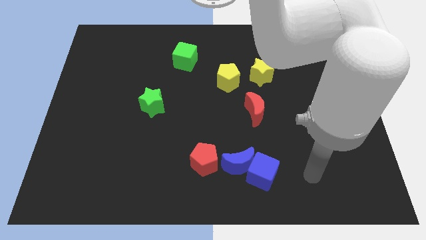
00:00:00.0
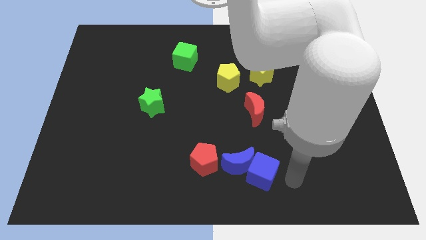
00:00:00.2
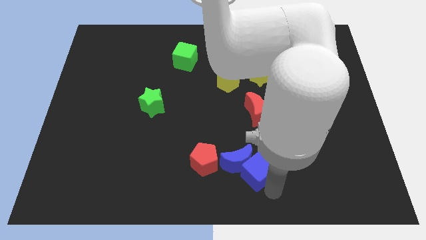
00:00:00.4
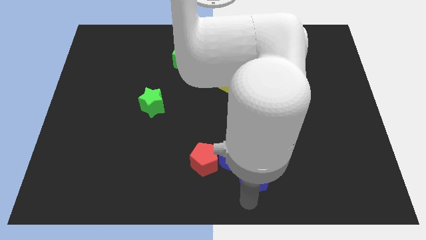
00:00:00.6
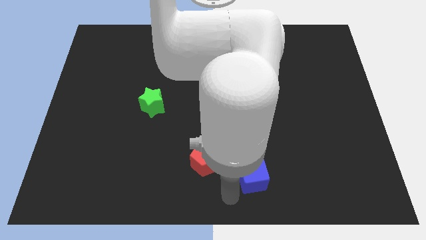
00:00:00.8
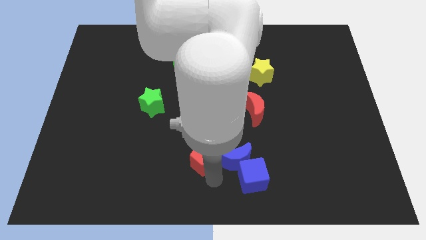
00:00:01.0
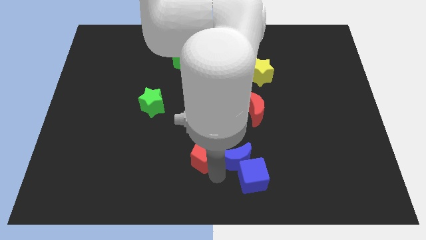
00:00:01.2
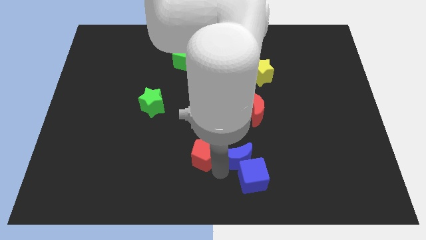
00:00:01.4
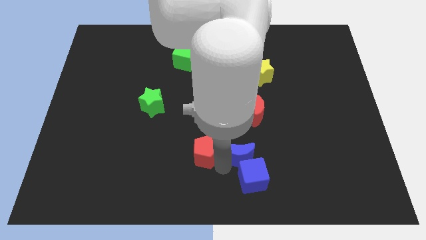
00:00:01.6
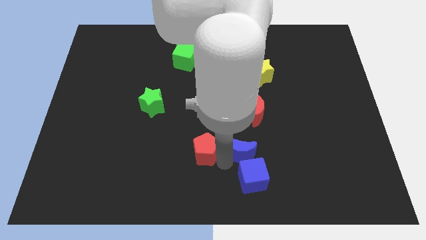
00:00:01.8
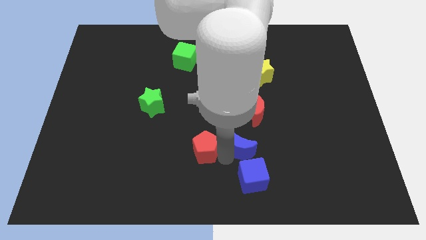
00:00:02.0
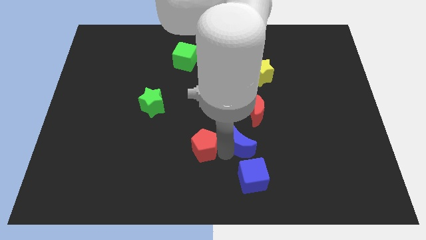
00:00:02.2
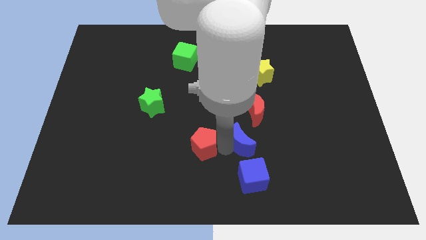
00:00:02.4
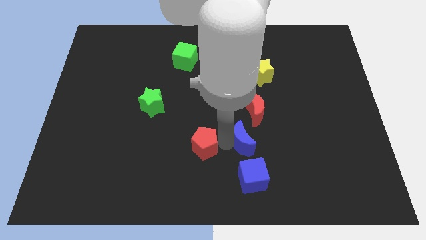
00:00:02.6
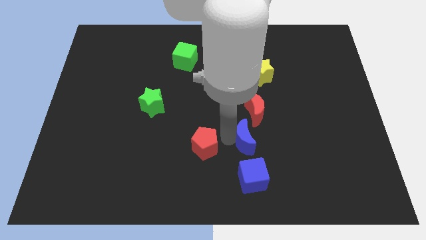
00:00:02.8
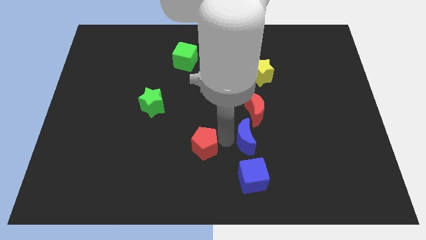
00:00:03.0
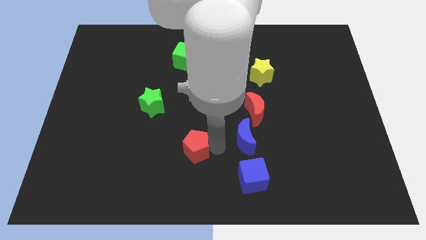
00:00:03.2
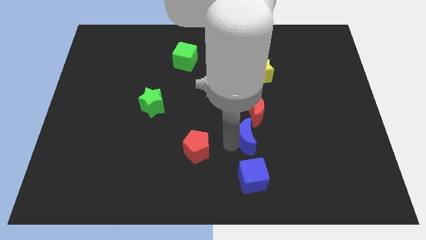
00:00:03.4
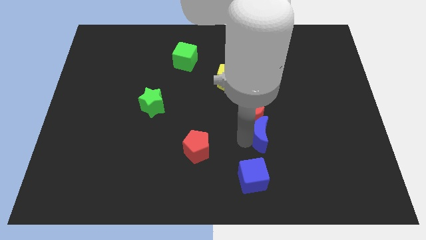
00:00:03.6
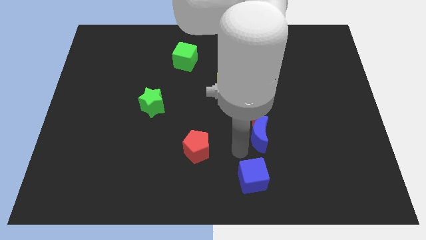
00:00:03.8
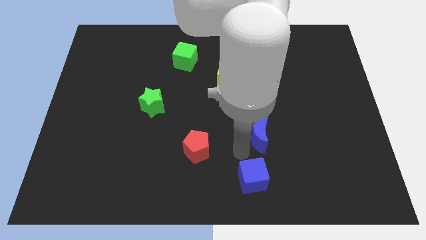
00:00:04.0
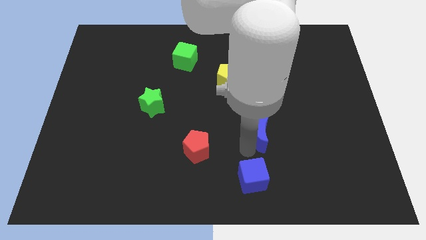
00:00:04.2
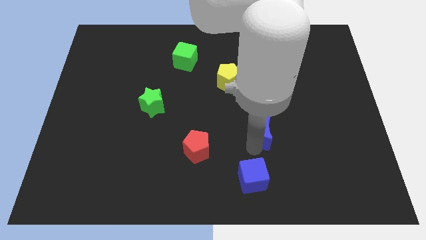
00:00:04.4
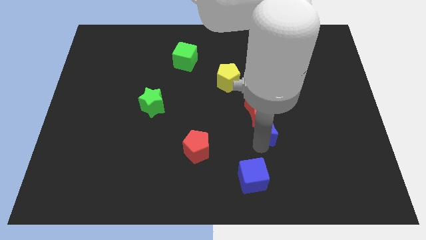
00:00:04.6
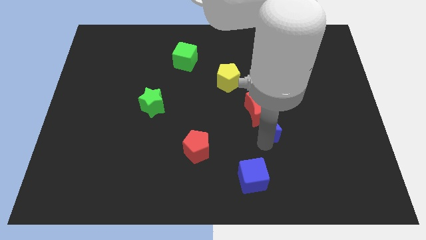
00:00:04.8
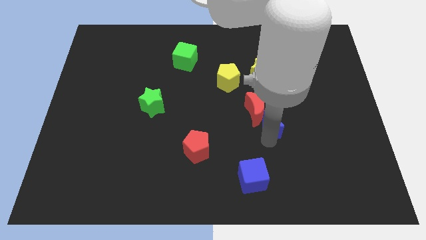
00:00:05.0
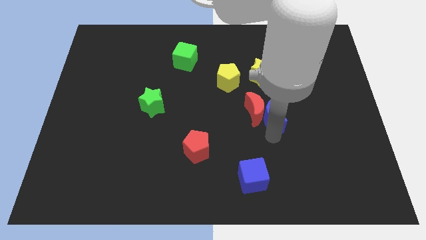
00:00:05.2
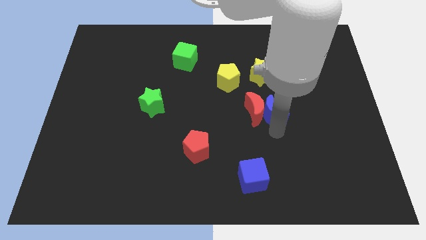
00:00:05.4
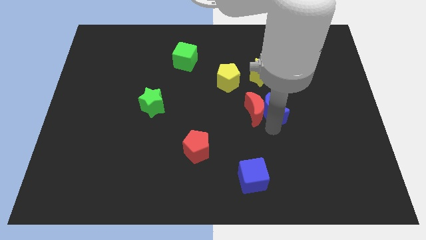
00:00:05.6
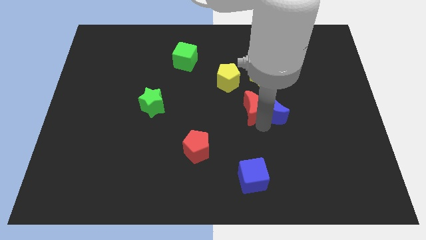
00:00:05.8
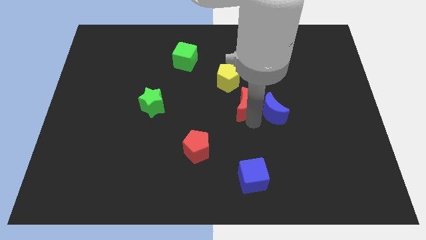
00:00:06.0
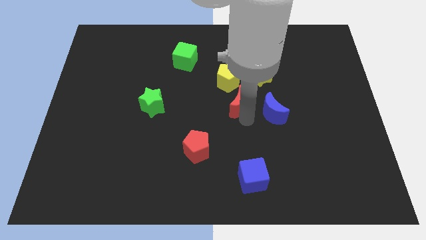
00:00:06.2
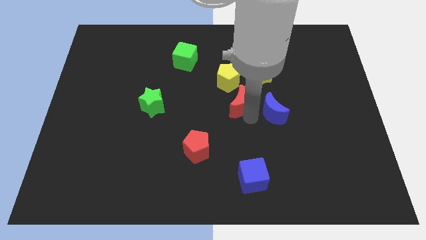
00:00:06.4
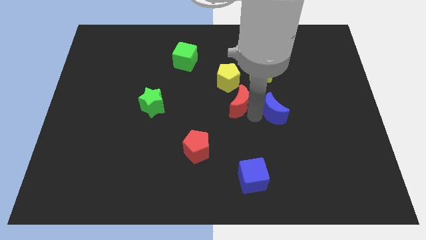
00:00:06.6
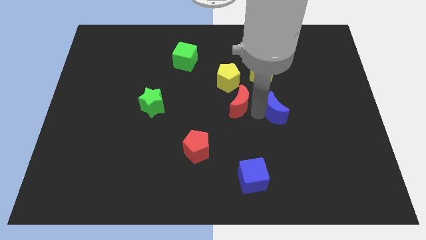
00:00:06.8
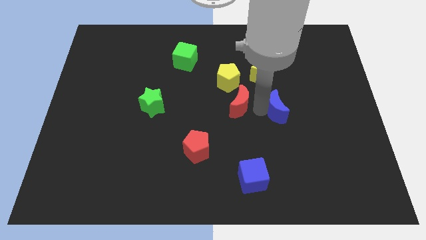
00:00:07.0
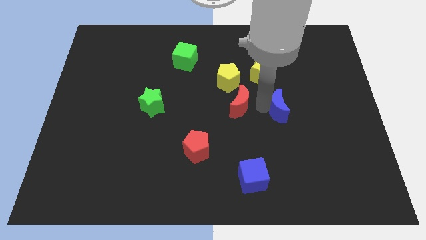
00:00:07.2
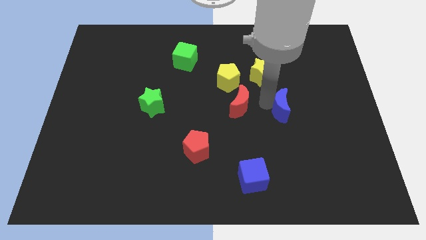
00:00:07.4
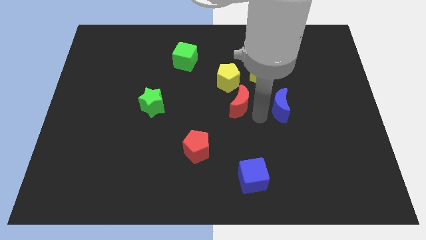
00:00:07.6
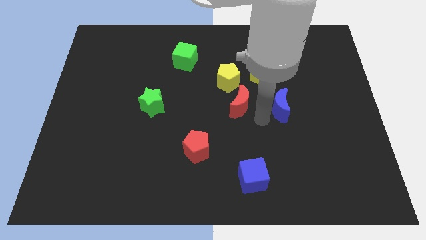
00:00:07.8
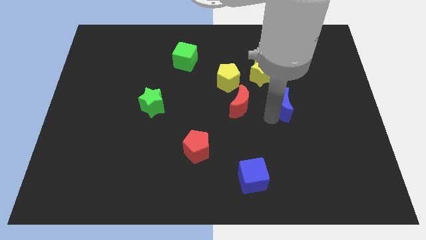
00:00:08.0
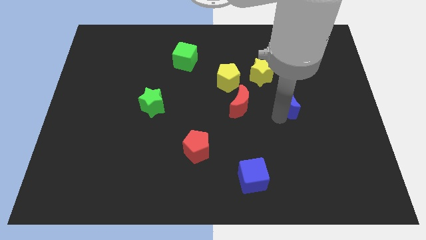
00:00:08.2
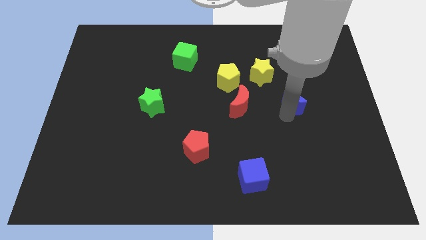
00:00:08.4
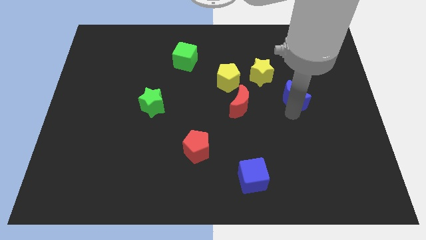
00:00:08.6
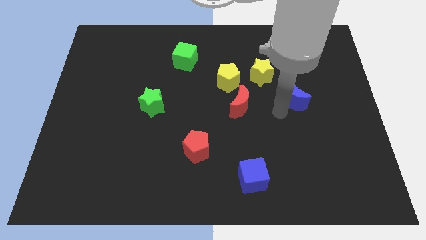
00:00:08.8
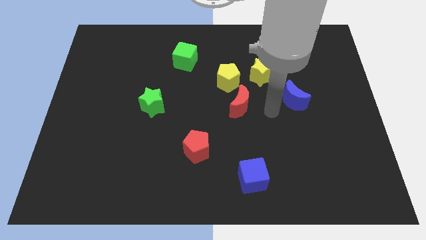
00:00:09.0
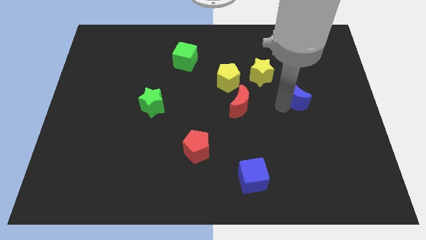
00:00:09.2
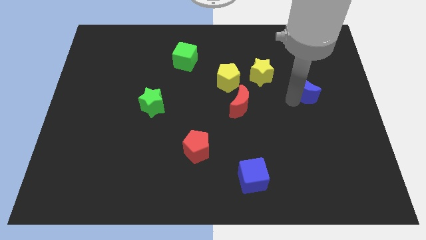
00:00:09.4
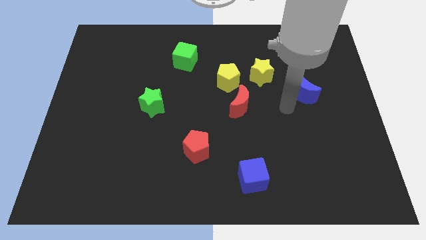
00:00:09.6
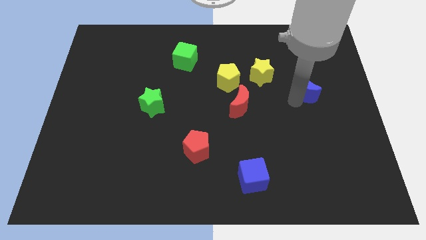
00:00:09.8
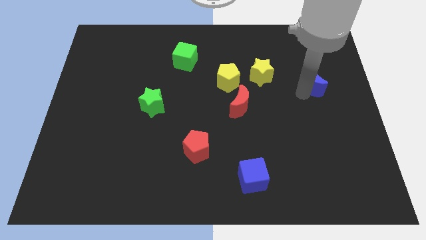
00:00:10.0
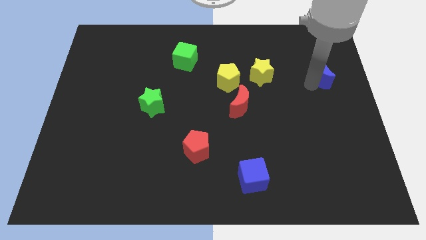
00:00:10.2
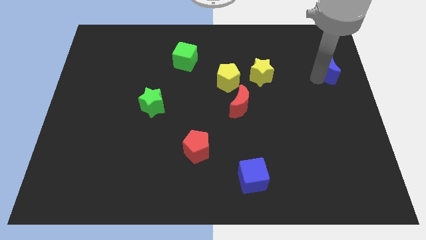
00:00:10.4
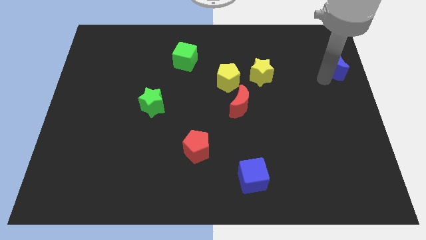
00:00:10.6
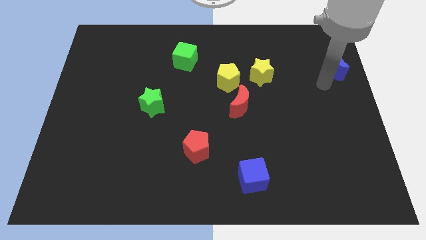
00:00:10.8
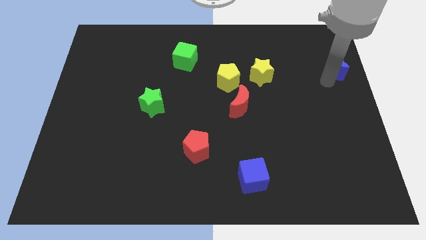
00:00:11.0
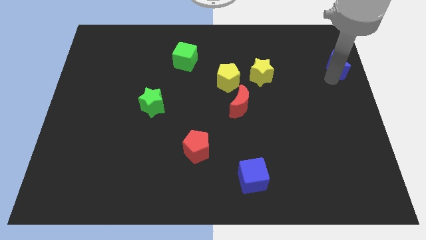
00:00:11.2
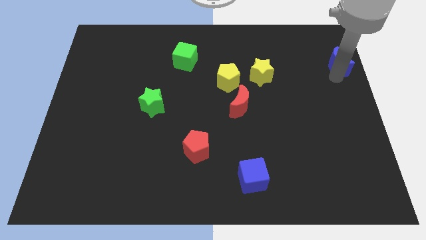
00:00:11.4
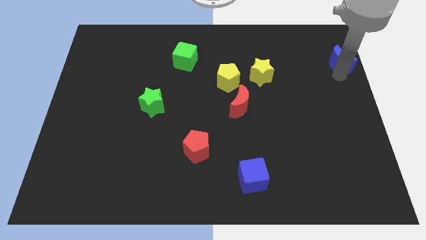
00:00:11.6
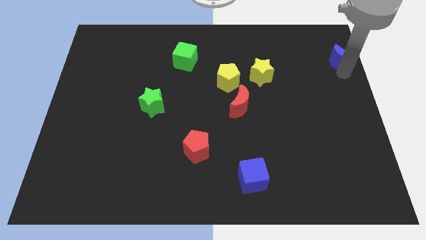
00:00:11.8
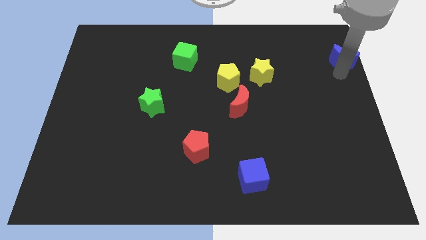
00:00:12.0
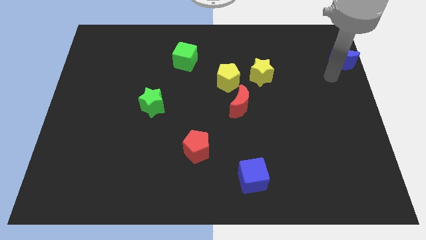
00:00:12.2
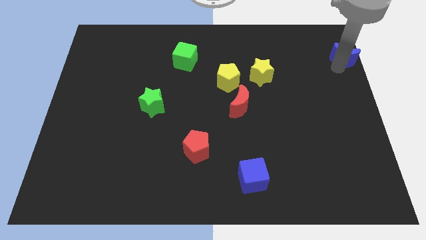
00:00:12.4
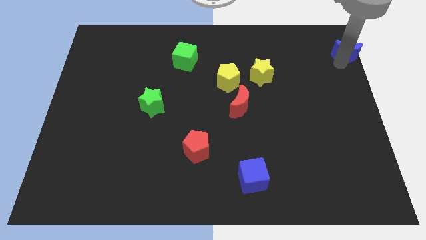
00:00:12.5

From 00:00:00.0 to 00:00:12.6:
push the blue moon to the top right of the board
